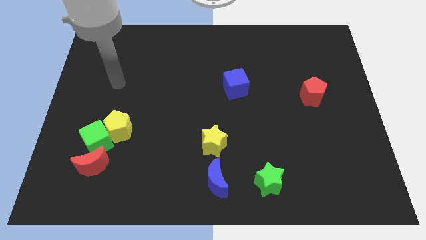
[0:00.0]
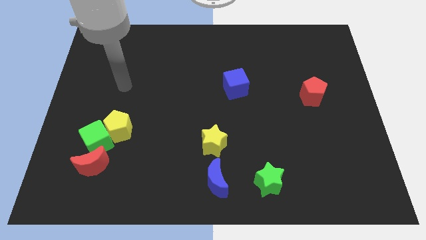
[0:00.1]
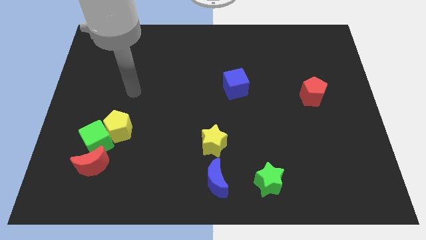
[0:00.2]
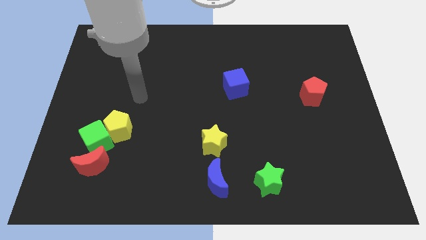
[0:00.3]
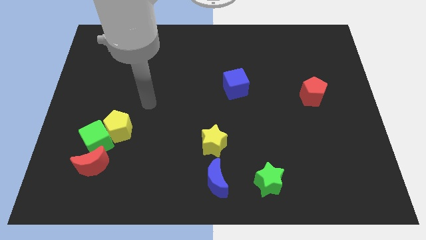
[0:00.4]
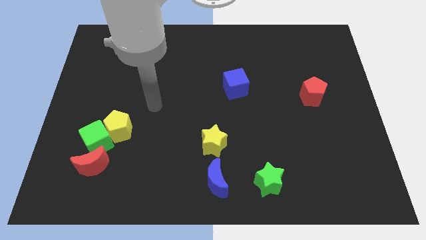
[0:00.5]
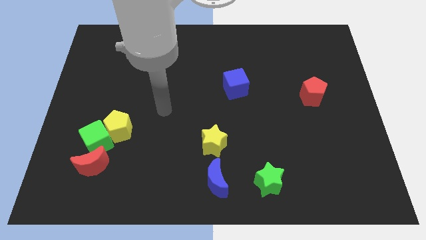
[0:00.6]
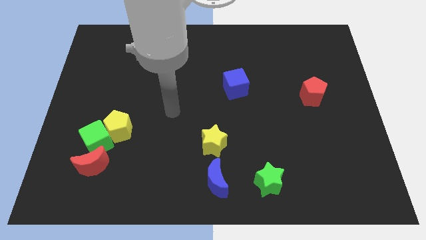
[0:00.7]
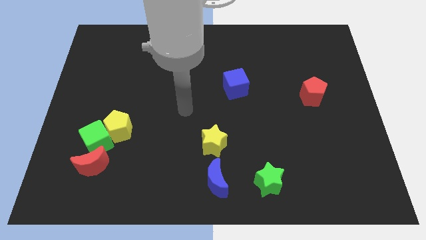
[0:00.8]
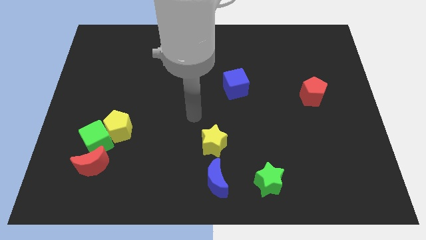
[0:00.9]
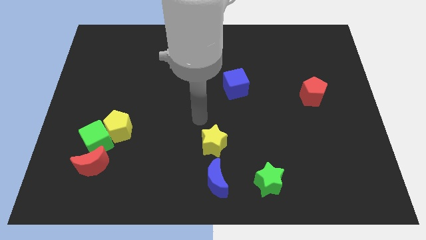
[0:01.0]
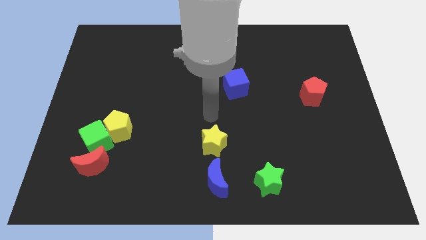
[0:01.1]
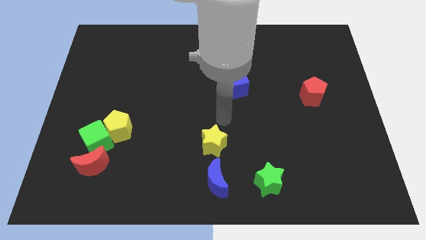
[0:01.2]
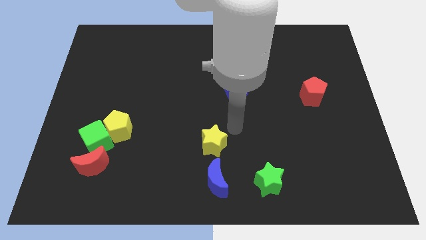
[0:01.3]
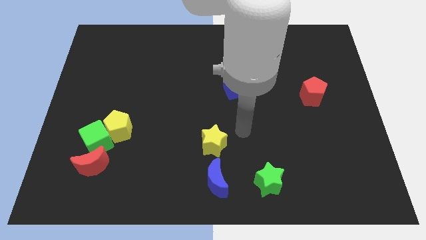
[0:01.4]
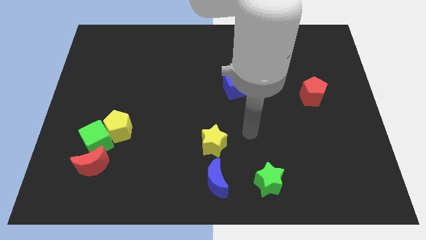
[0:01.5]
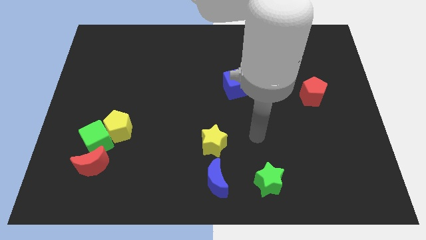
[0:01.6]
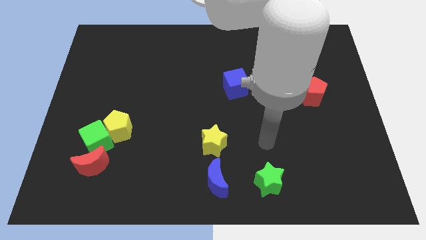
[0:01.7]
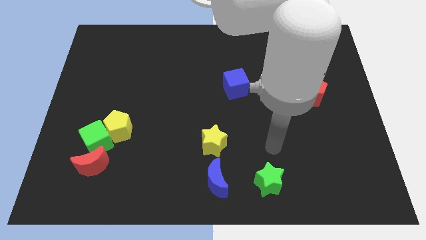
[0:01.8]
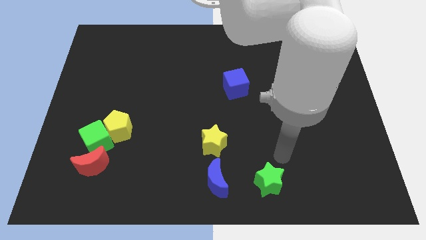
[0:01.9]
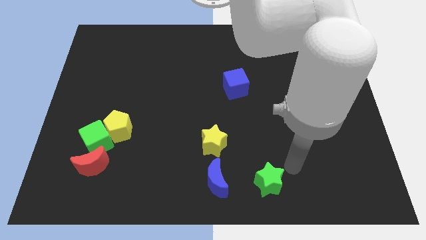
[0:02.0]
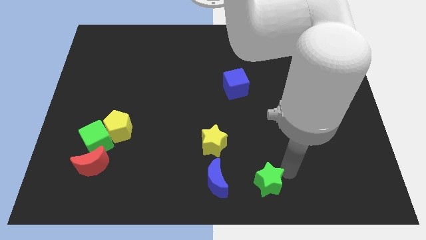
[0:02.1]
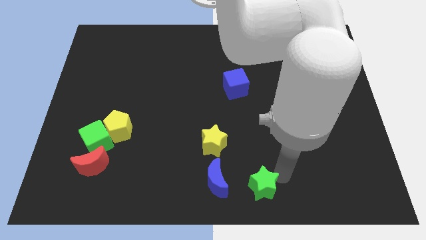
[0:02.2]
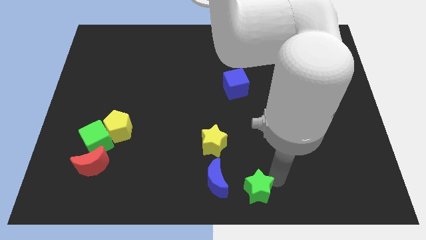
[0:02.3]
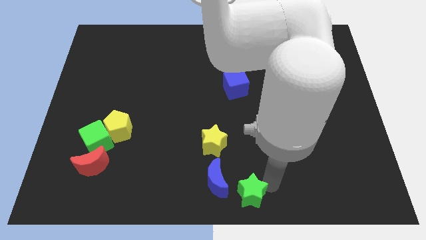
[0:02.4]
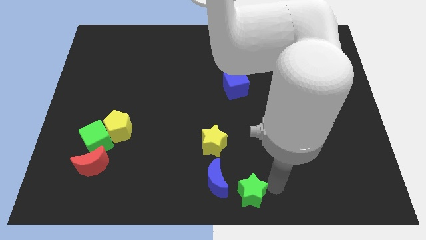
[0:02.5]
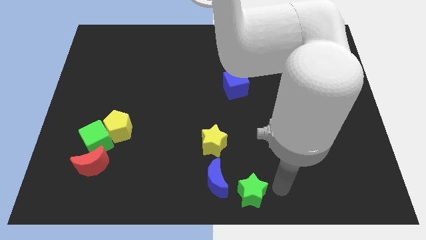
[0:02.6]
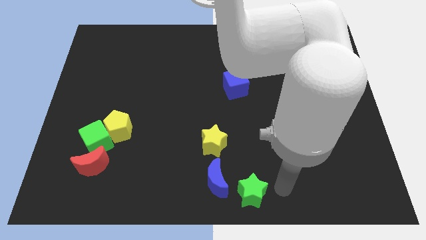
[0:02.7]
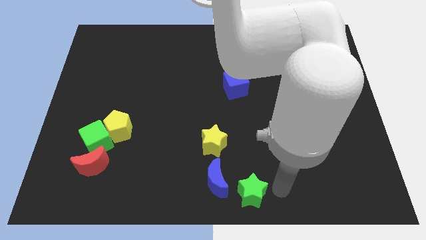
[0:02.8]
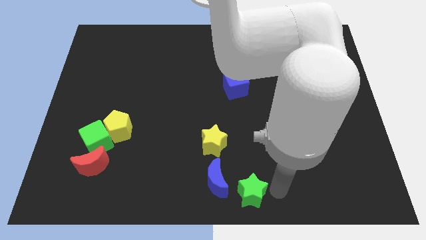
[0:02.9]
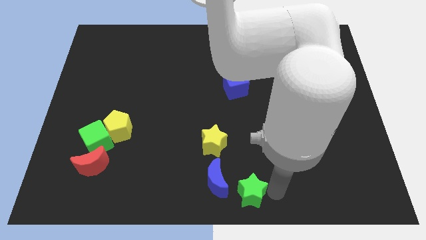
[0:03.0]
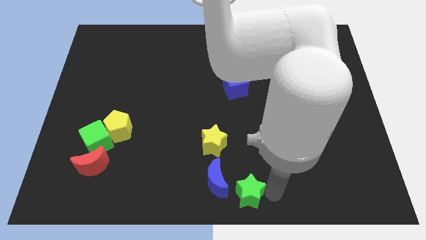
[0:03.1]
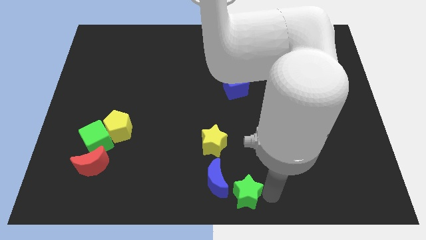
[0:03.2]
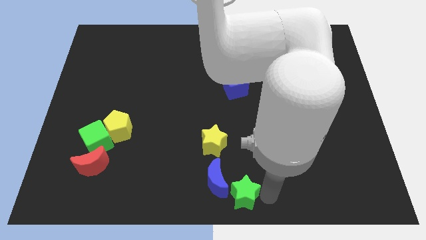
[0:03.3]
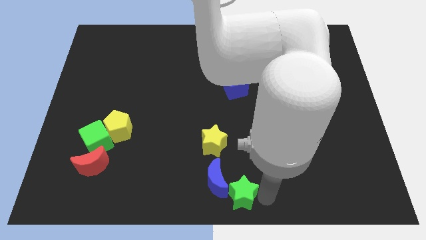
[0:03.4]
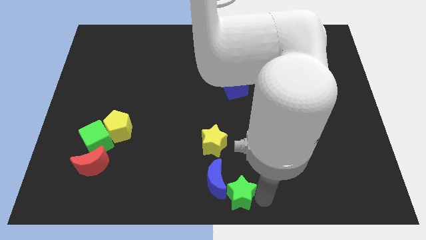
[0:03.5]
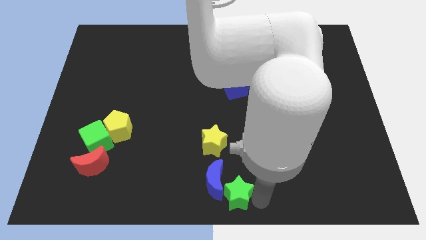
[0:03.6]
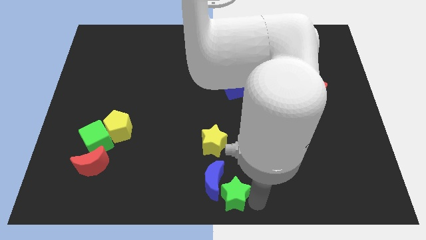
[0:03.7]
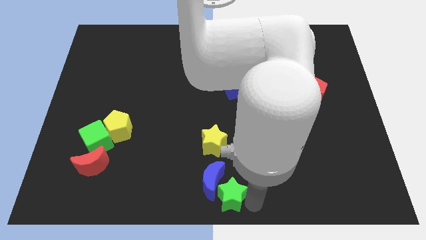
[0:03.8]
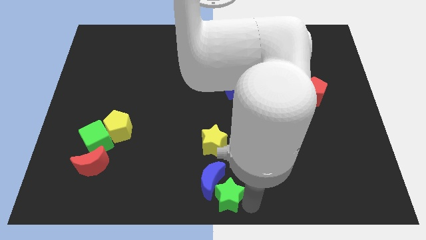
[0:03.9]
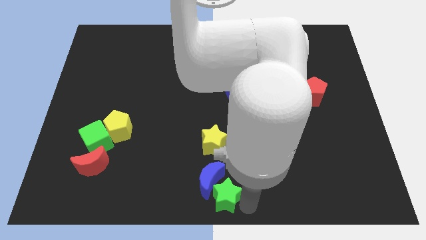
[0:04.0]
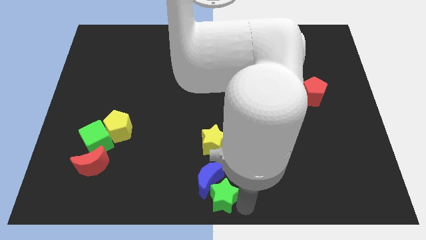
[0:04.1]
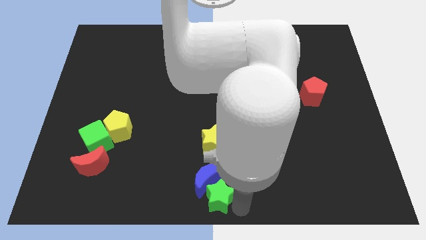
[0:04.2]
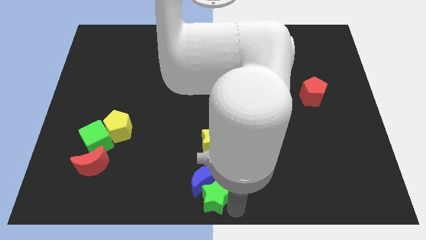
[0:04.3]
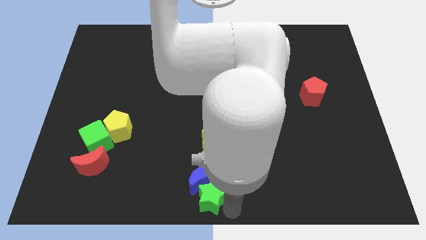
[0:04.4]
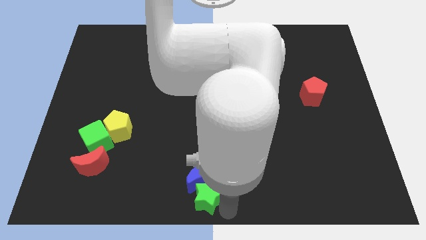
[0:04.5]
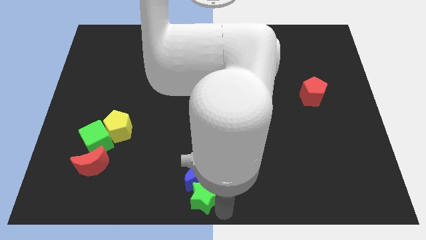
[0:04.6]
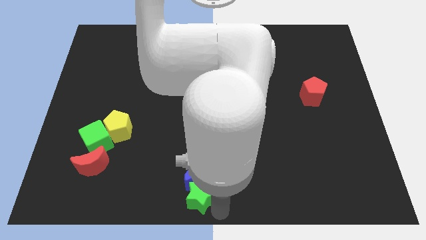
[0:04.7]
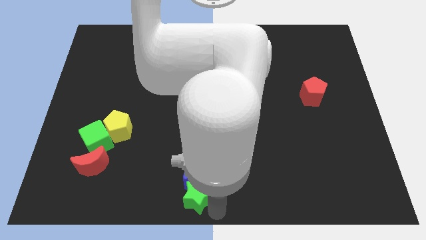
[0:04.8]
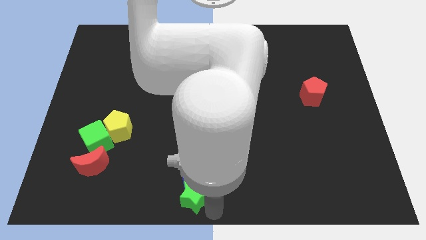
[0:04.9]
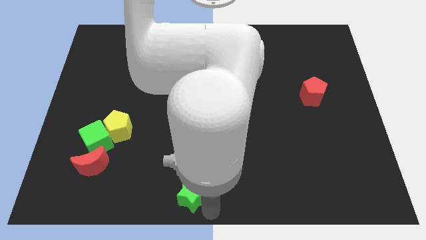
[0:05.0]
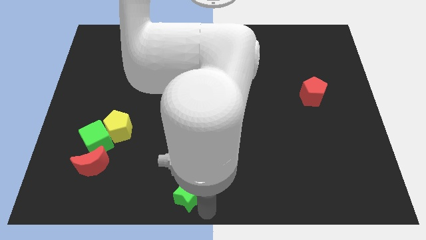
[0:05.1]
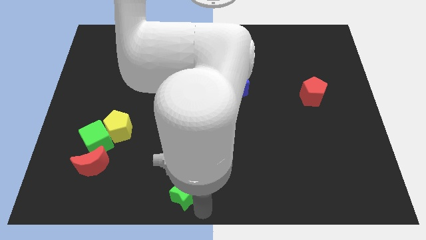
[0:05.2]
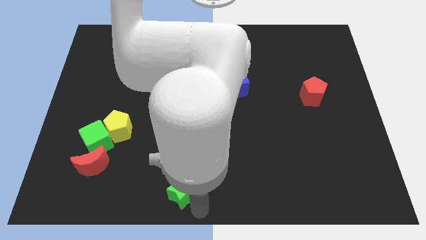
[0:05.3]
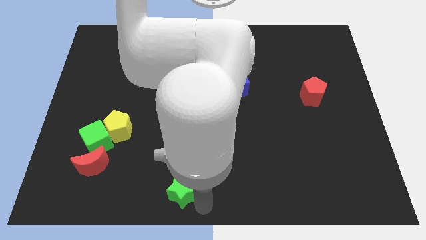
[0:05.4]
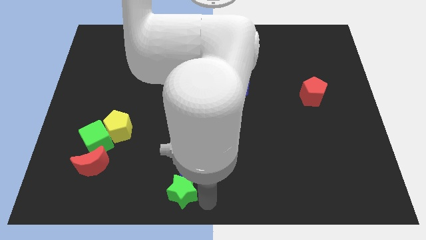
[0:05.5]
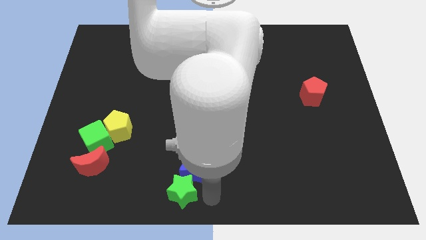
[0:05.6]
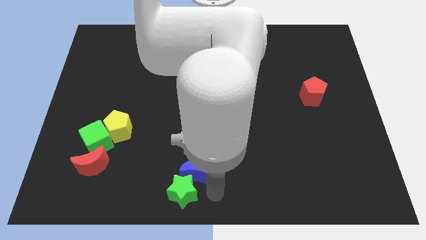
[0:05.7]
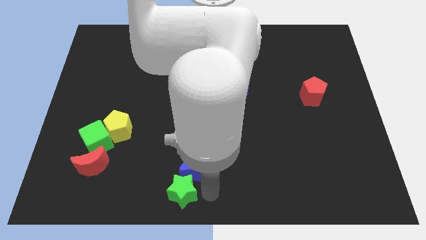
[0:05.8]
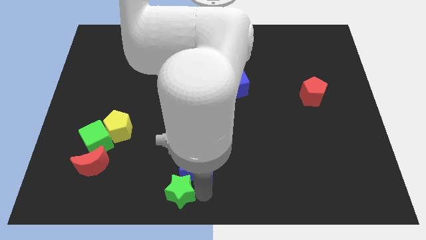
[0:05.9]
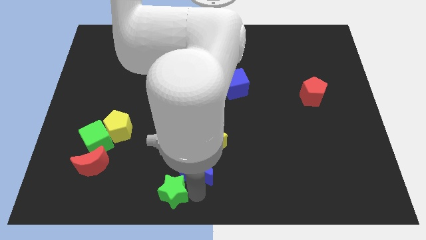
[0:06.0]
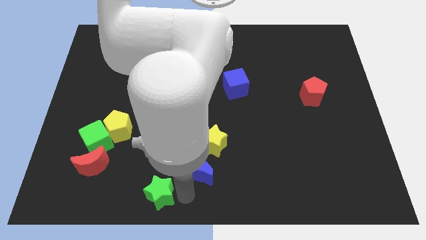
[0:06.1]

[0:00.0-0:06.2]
push the green star to the left

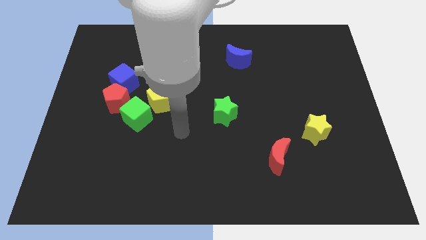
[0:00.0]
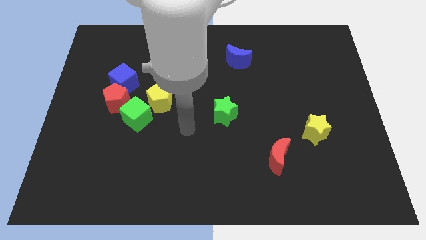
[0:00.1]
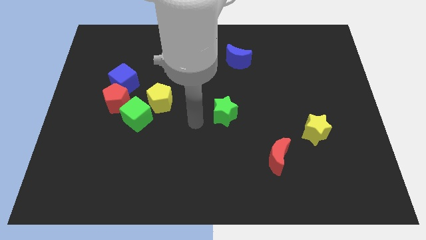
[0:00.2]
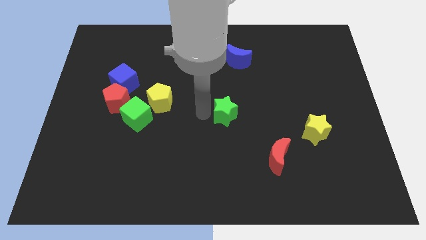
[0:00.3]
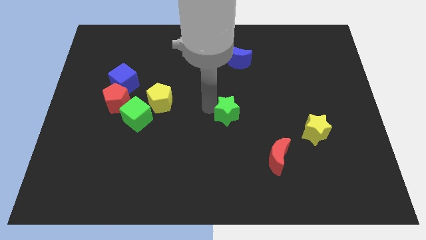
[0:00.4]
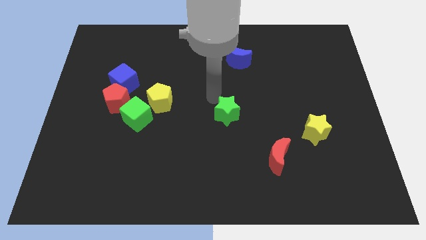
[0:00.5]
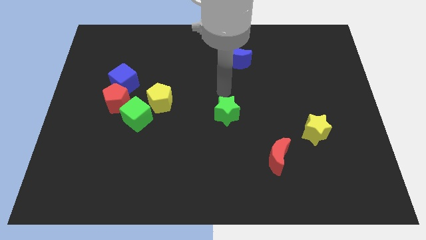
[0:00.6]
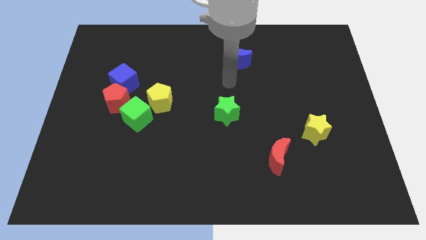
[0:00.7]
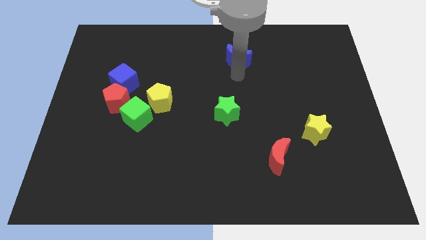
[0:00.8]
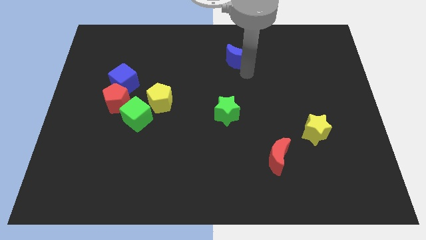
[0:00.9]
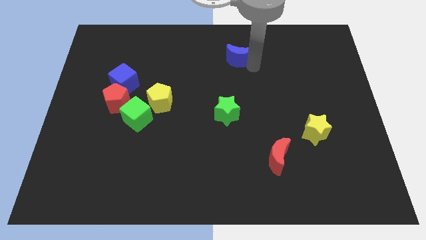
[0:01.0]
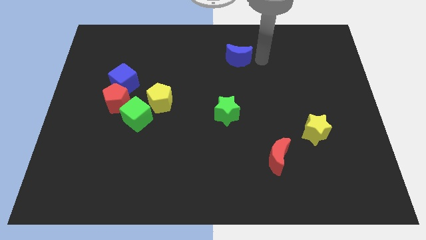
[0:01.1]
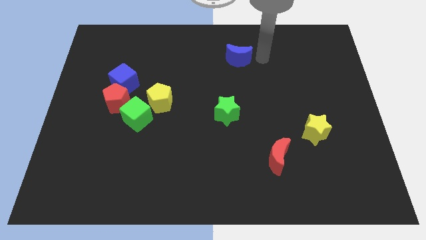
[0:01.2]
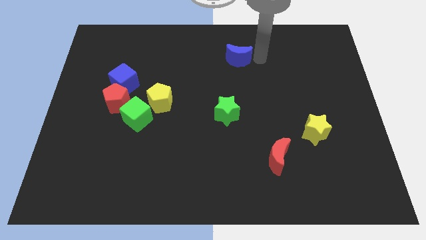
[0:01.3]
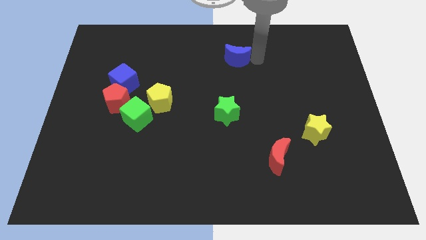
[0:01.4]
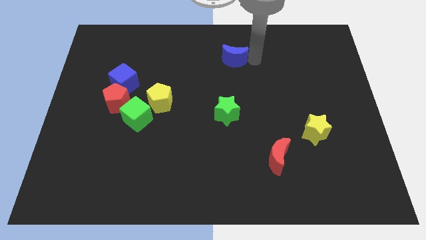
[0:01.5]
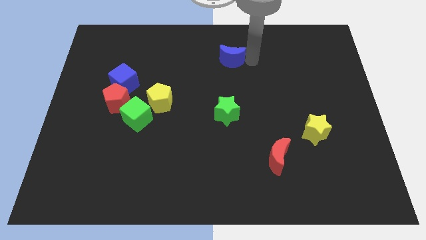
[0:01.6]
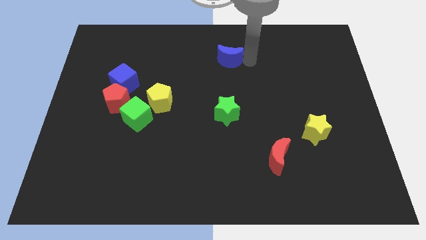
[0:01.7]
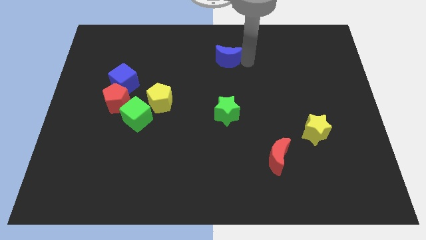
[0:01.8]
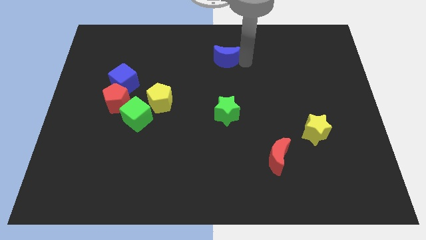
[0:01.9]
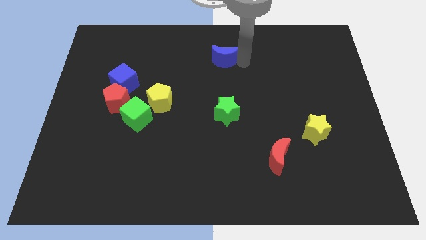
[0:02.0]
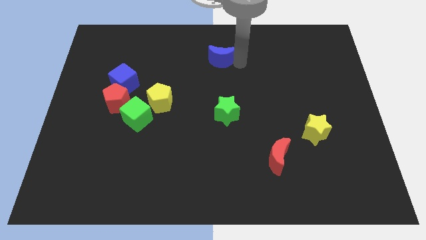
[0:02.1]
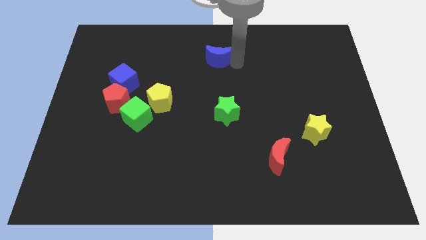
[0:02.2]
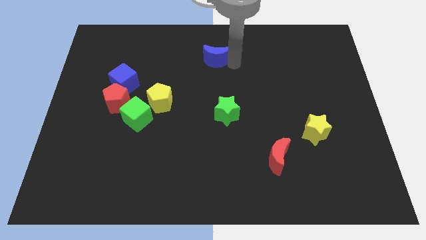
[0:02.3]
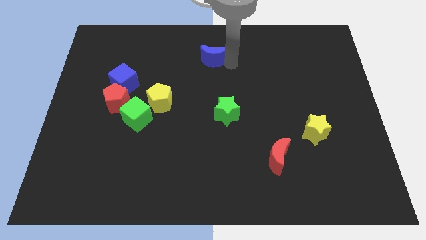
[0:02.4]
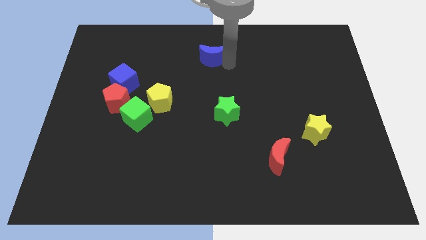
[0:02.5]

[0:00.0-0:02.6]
push the blue moon left a bit
